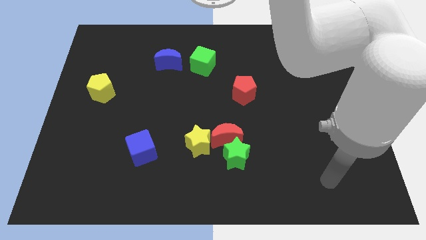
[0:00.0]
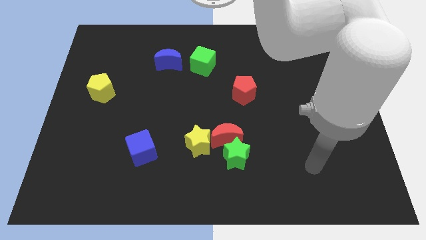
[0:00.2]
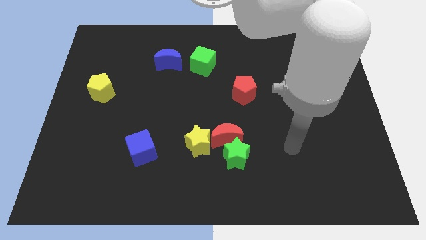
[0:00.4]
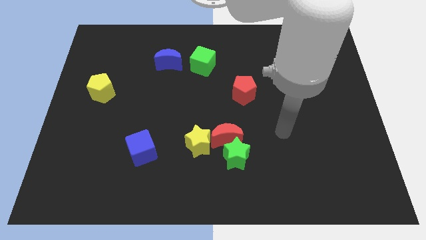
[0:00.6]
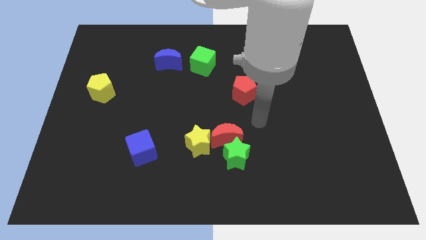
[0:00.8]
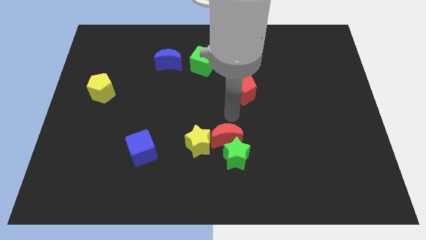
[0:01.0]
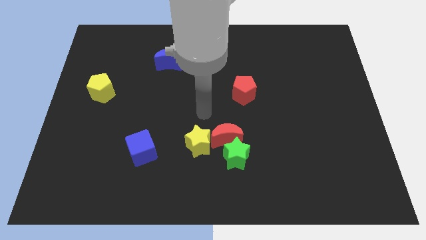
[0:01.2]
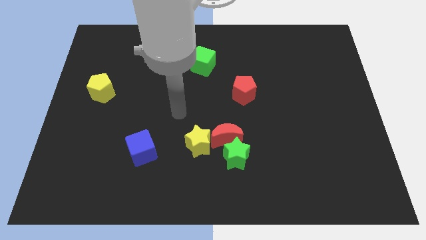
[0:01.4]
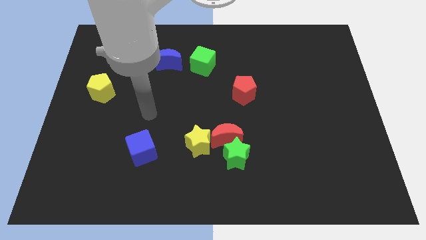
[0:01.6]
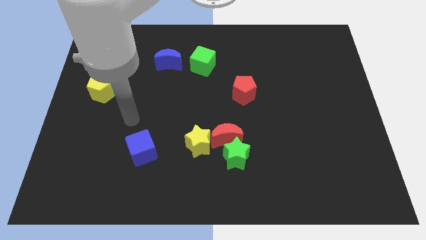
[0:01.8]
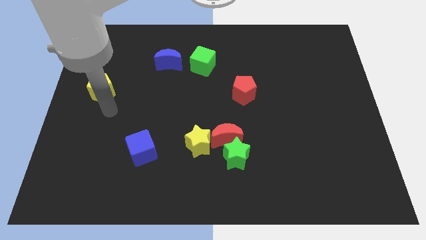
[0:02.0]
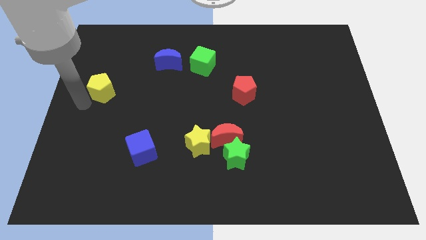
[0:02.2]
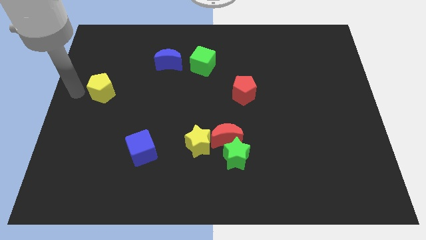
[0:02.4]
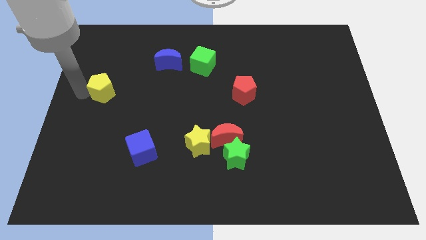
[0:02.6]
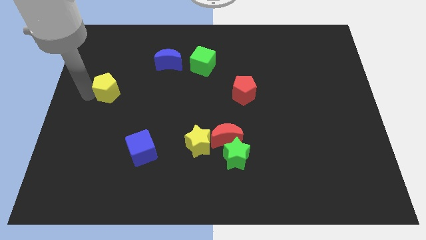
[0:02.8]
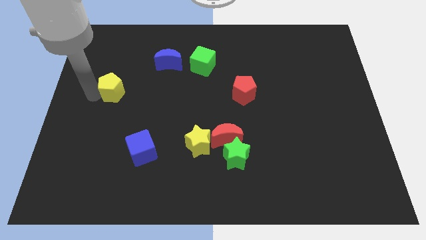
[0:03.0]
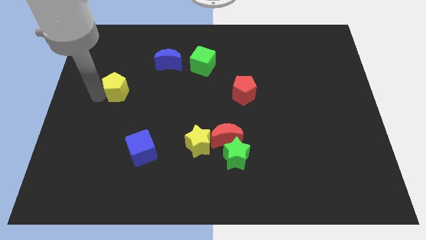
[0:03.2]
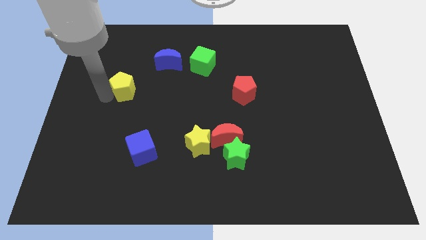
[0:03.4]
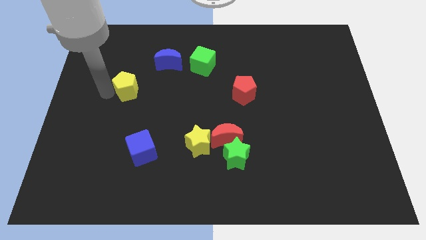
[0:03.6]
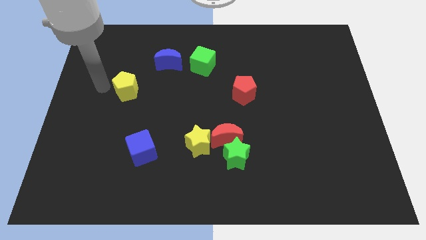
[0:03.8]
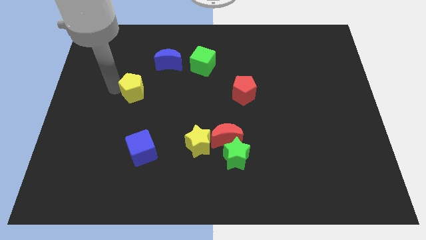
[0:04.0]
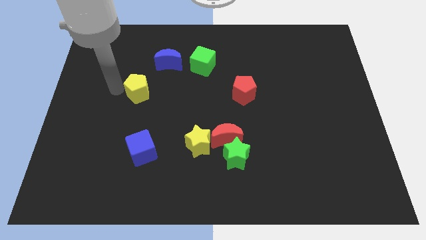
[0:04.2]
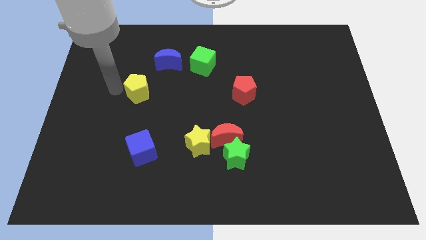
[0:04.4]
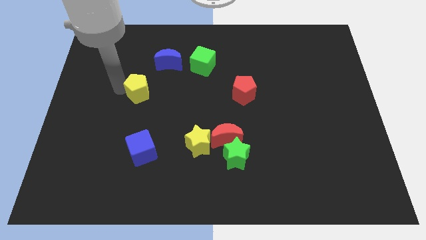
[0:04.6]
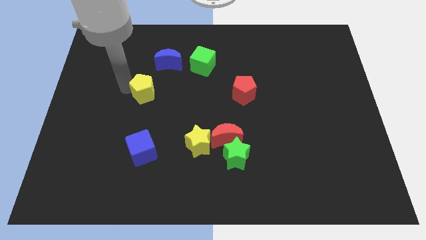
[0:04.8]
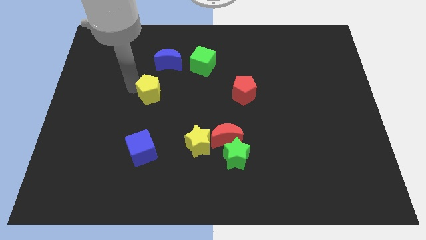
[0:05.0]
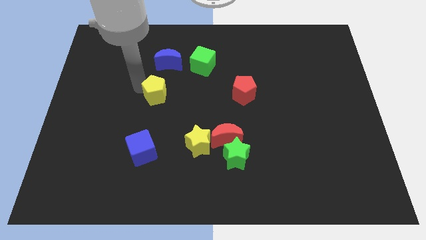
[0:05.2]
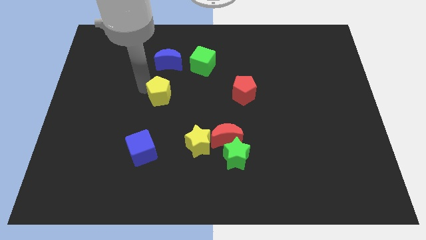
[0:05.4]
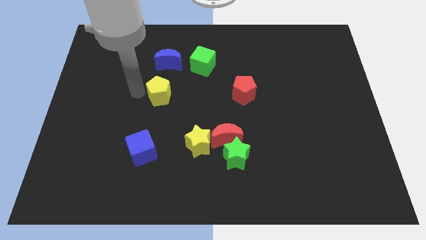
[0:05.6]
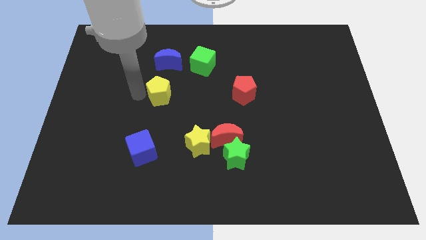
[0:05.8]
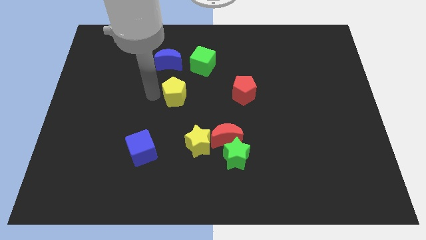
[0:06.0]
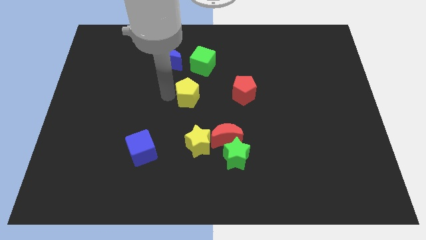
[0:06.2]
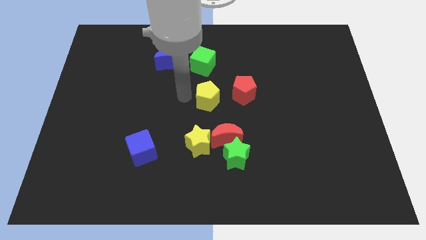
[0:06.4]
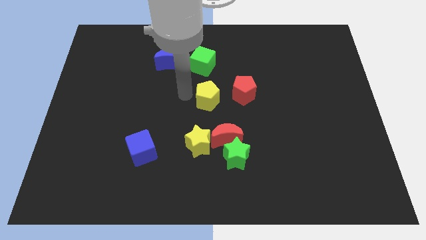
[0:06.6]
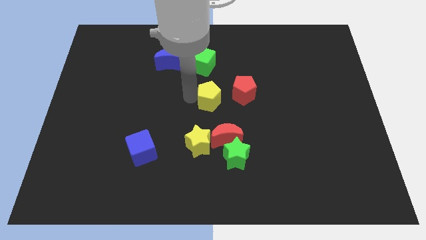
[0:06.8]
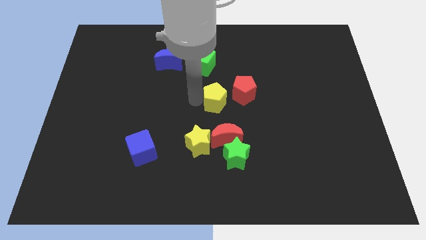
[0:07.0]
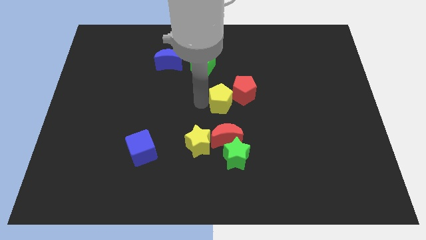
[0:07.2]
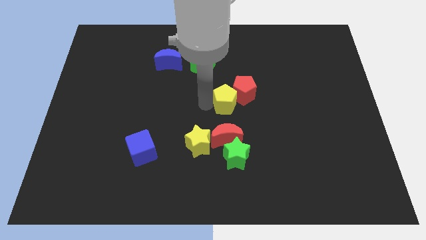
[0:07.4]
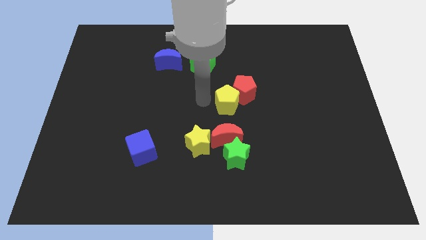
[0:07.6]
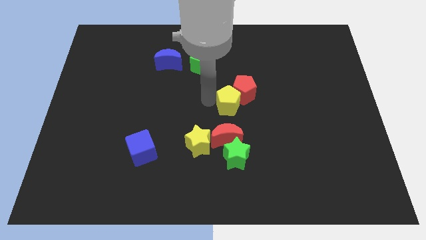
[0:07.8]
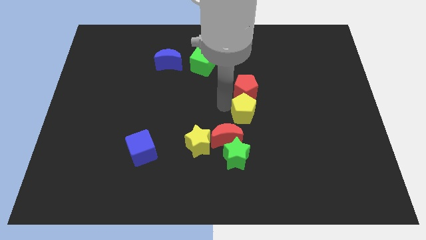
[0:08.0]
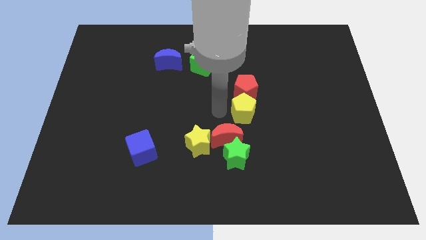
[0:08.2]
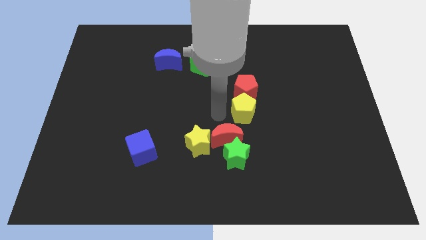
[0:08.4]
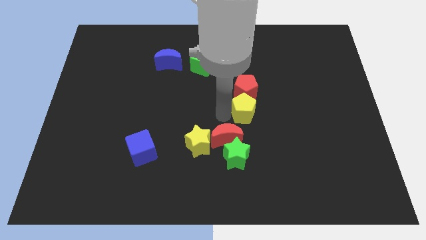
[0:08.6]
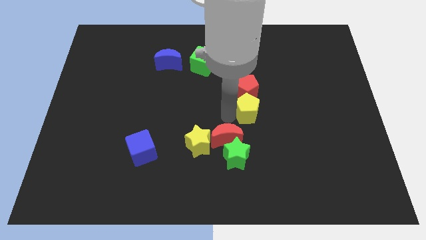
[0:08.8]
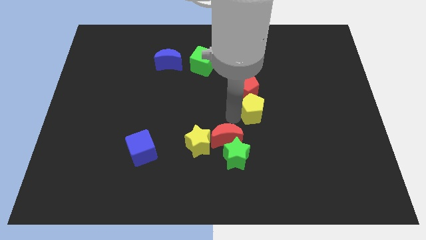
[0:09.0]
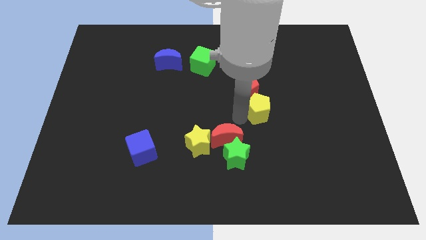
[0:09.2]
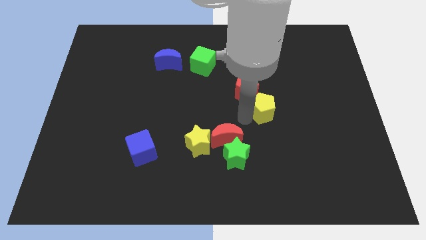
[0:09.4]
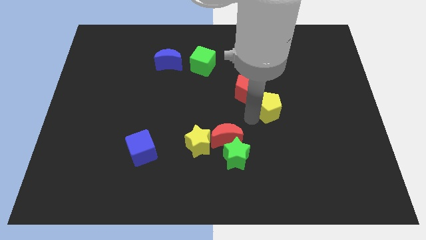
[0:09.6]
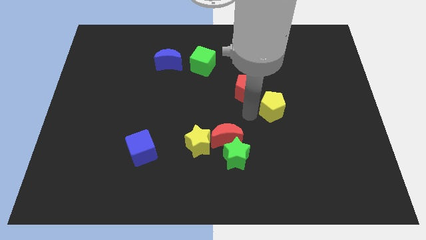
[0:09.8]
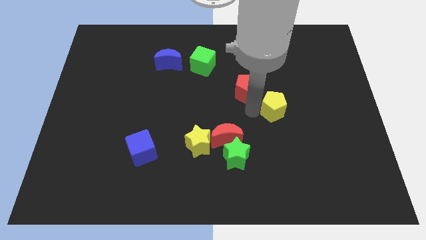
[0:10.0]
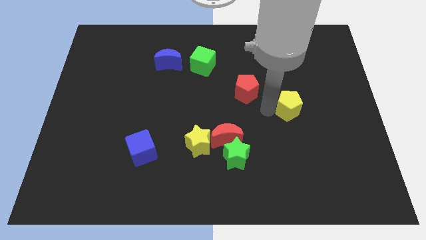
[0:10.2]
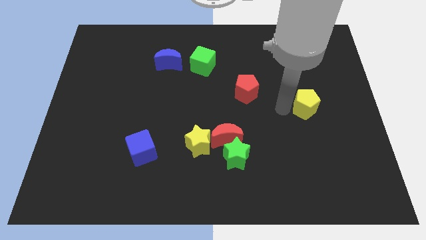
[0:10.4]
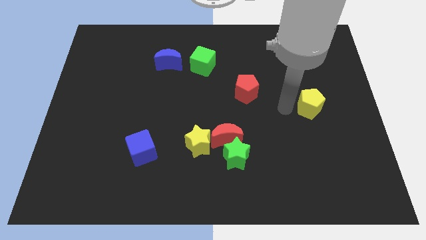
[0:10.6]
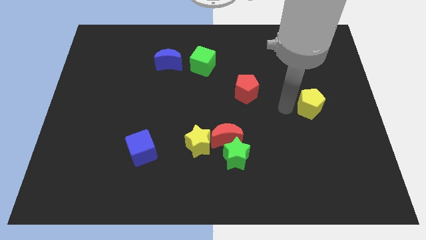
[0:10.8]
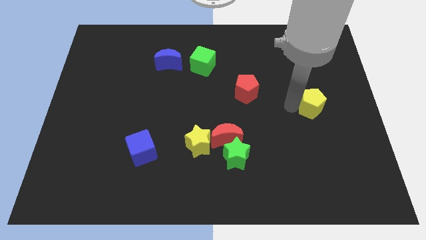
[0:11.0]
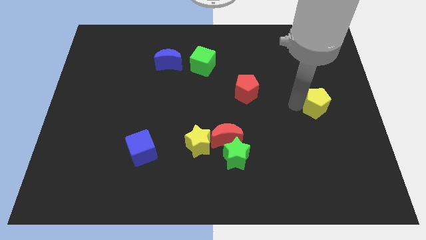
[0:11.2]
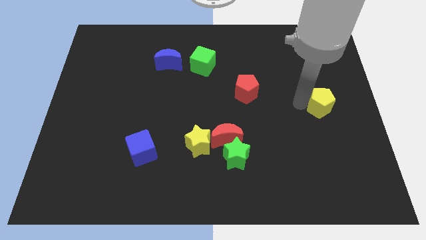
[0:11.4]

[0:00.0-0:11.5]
slide the yellow pentagon to the center right
